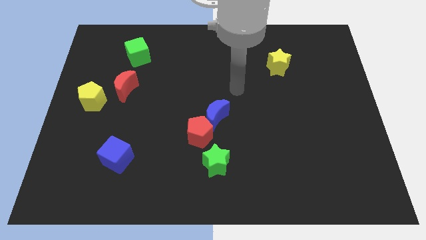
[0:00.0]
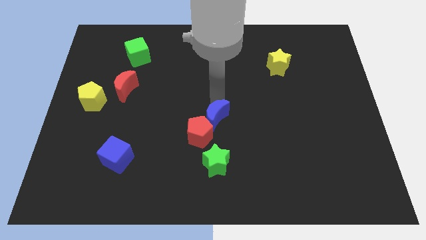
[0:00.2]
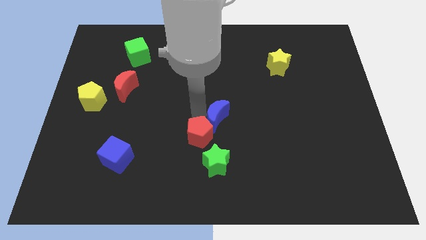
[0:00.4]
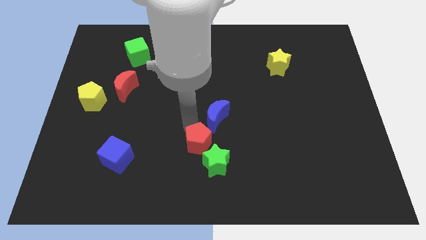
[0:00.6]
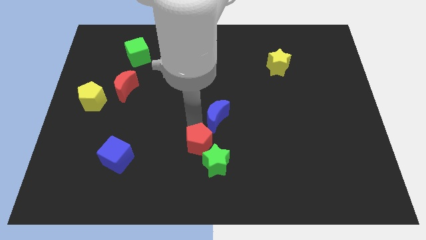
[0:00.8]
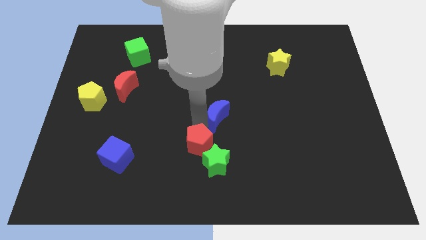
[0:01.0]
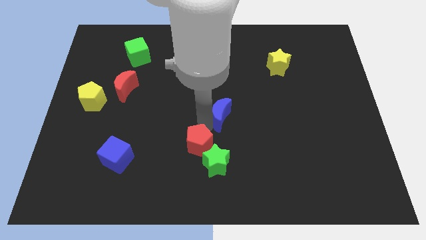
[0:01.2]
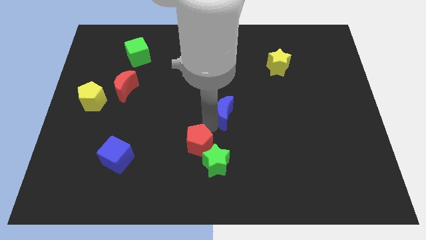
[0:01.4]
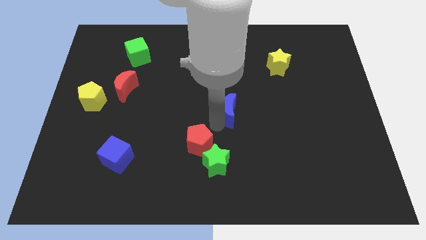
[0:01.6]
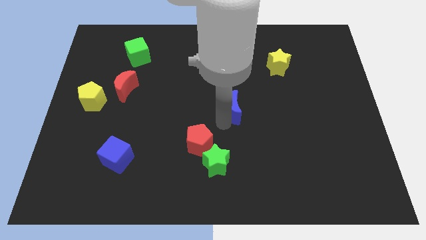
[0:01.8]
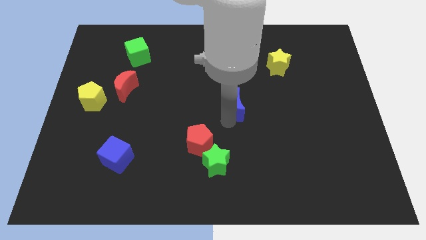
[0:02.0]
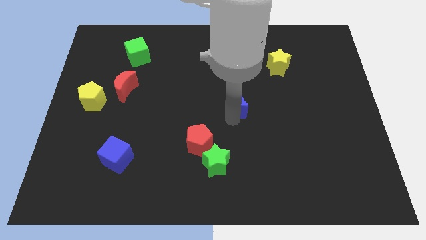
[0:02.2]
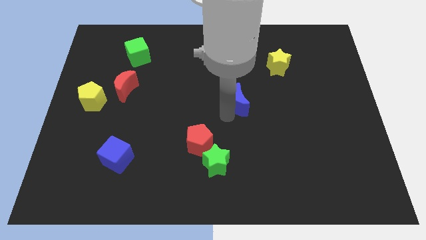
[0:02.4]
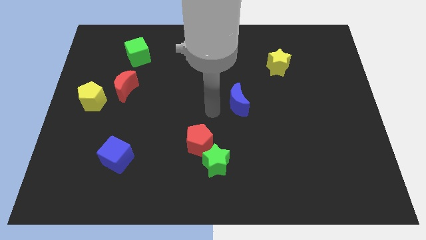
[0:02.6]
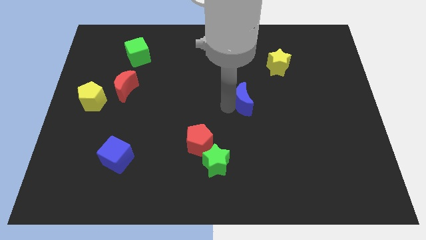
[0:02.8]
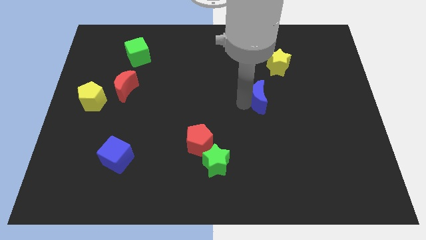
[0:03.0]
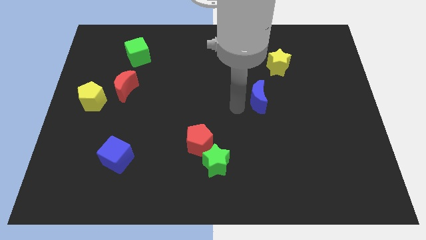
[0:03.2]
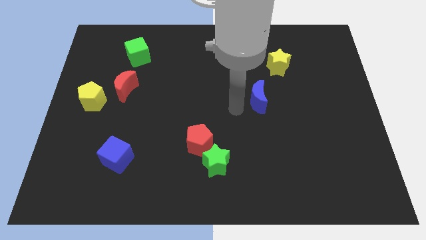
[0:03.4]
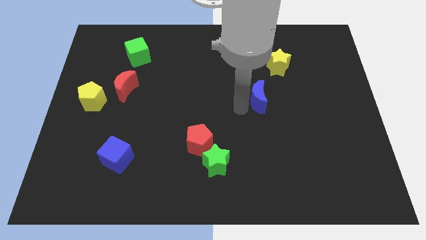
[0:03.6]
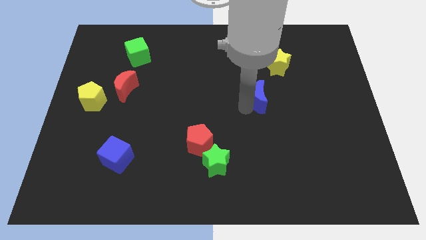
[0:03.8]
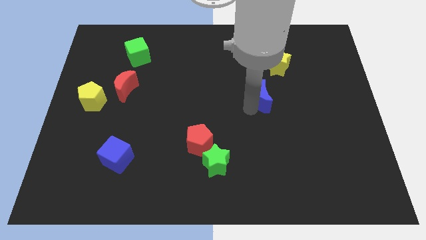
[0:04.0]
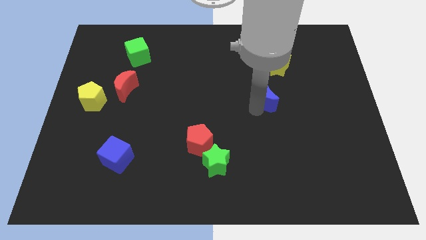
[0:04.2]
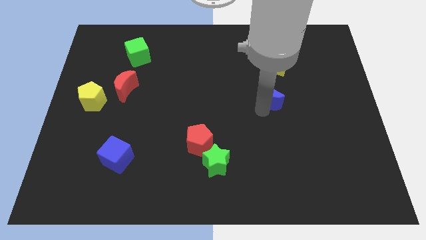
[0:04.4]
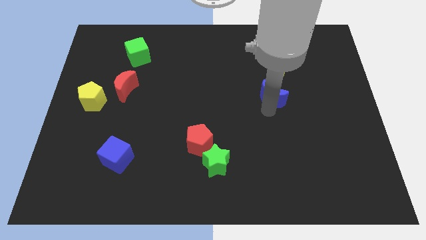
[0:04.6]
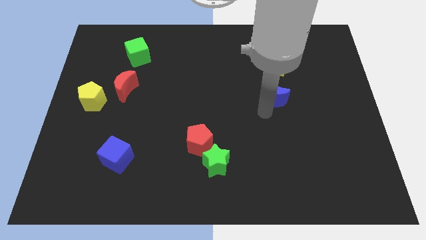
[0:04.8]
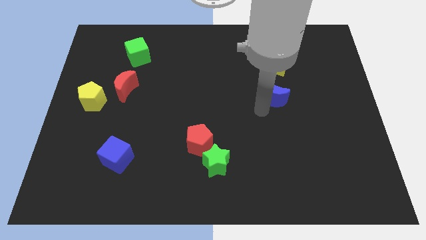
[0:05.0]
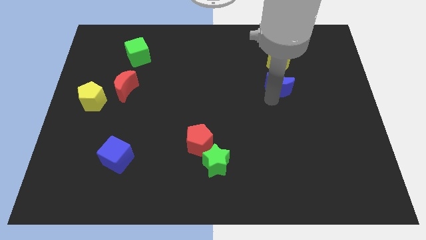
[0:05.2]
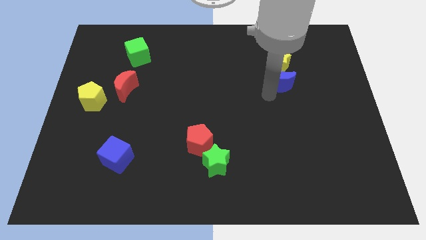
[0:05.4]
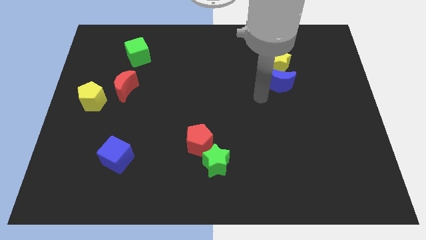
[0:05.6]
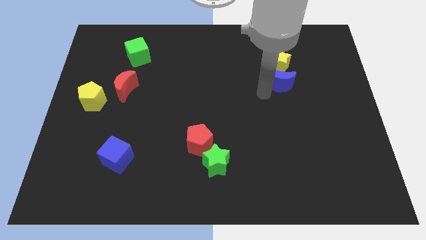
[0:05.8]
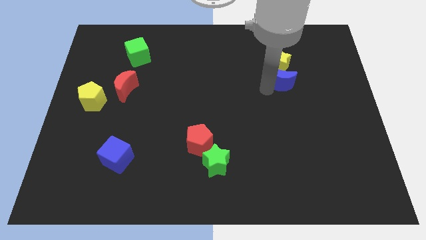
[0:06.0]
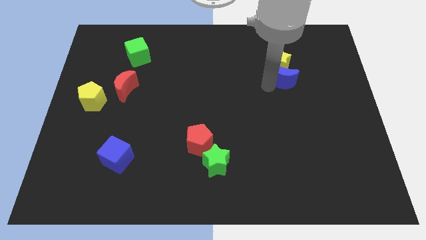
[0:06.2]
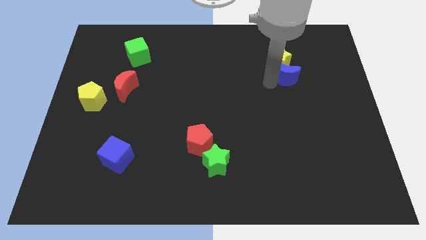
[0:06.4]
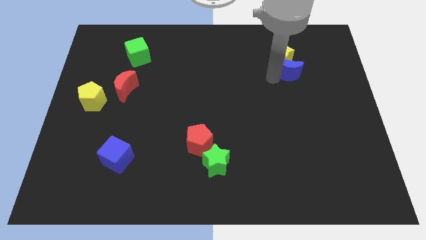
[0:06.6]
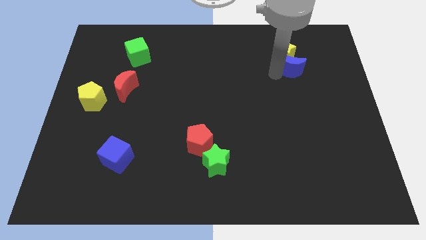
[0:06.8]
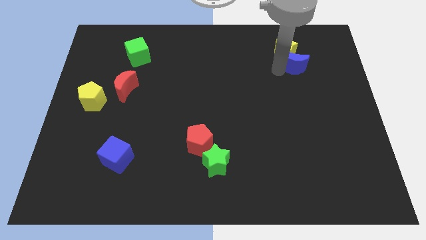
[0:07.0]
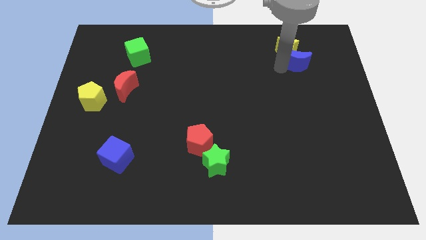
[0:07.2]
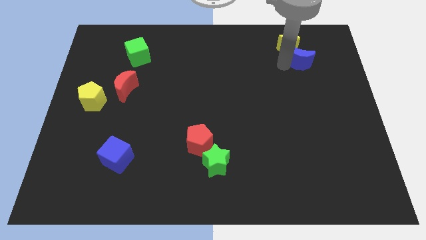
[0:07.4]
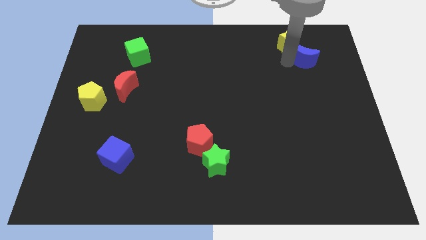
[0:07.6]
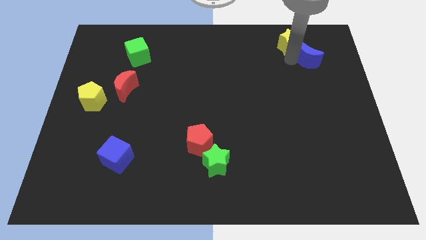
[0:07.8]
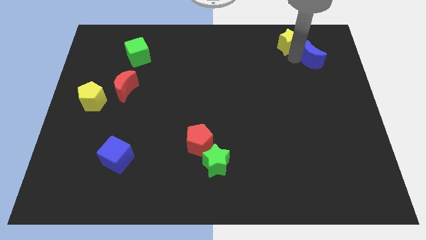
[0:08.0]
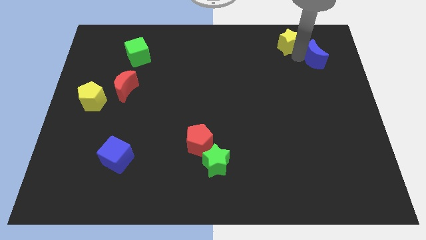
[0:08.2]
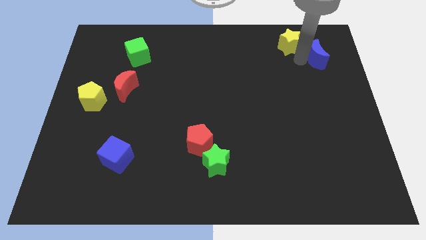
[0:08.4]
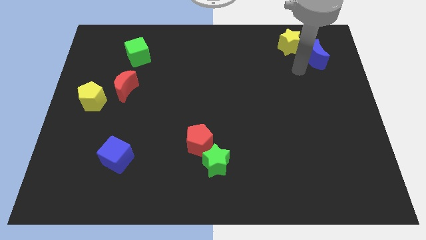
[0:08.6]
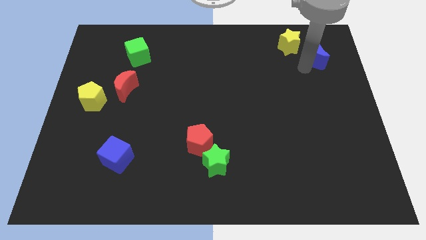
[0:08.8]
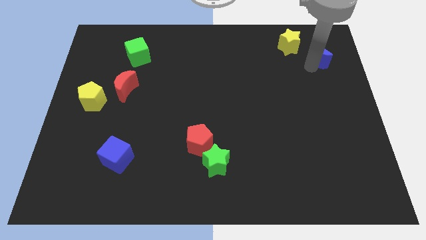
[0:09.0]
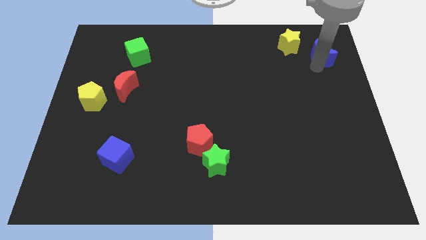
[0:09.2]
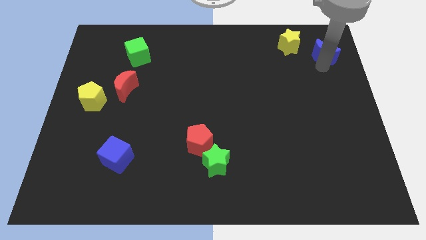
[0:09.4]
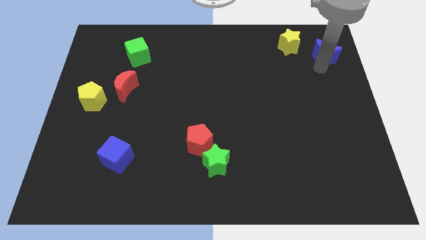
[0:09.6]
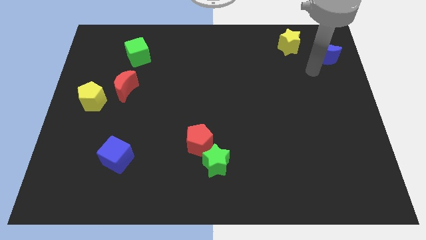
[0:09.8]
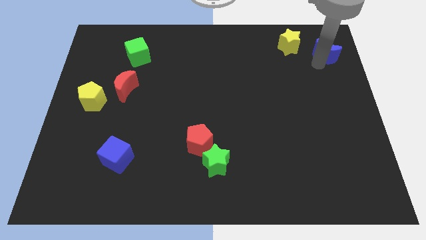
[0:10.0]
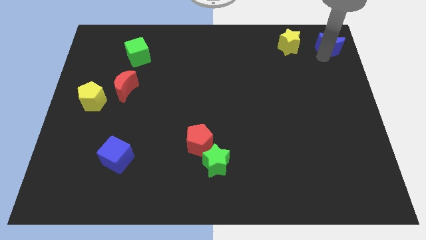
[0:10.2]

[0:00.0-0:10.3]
slide the blue moon to the top right

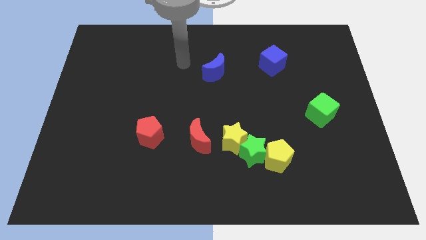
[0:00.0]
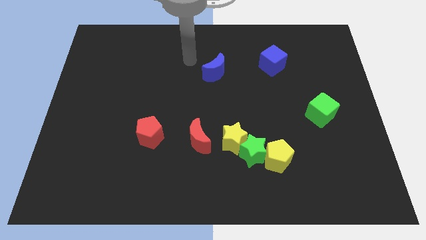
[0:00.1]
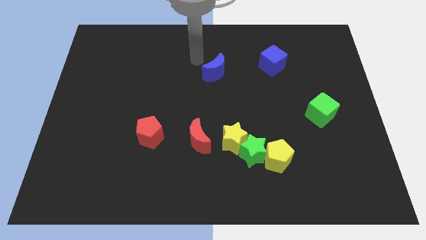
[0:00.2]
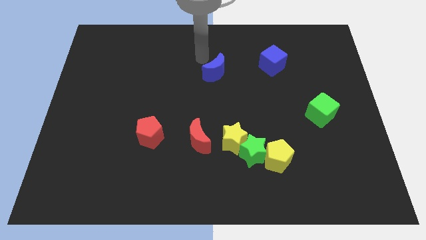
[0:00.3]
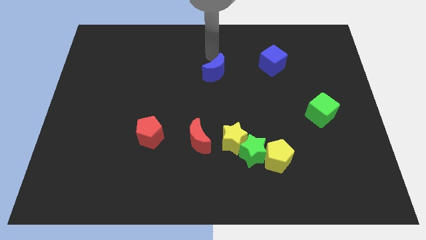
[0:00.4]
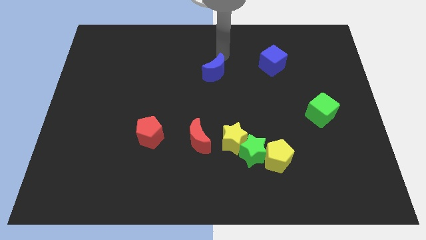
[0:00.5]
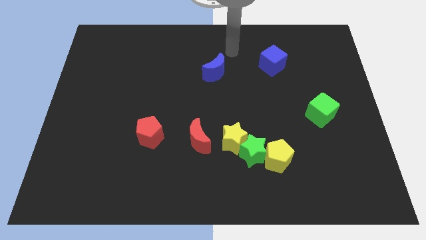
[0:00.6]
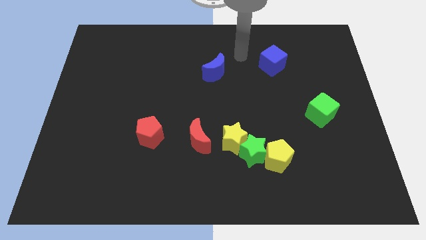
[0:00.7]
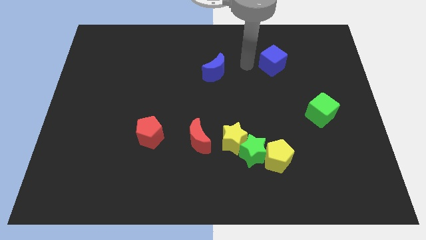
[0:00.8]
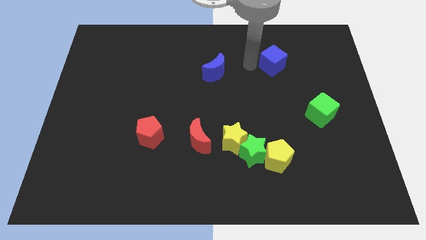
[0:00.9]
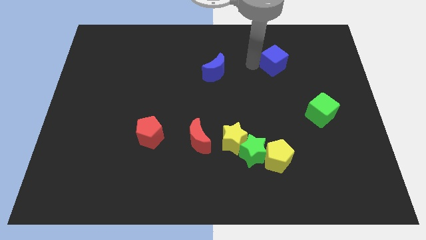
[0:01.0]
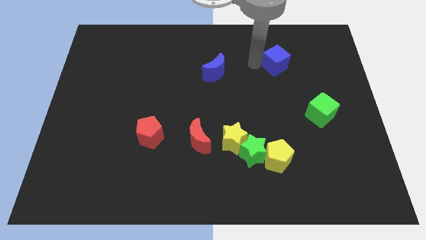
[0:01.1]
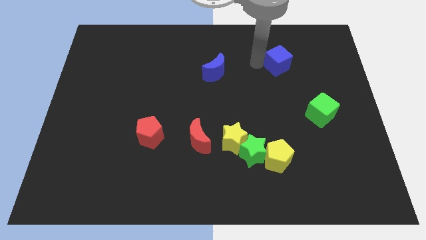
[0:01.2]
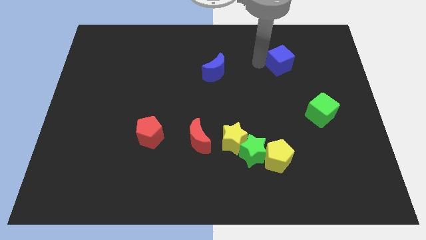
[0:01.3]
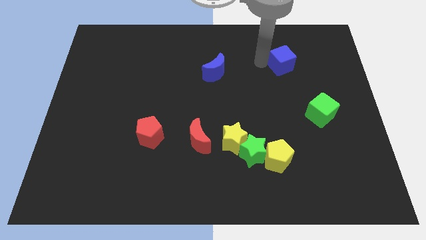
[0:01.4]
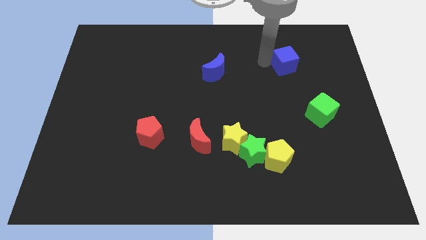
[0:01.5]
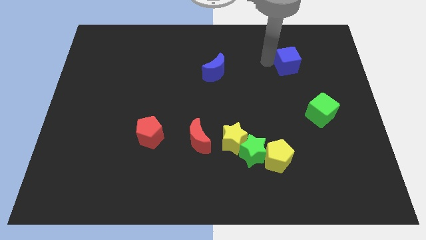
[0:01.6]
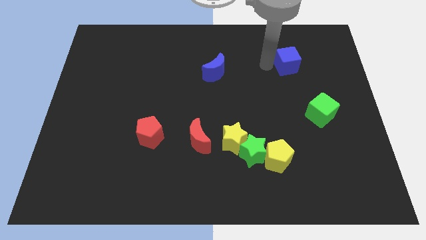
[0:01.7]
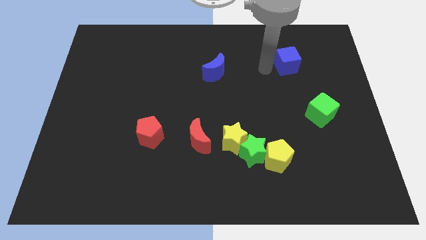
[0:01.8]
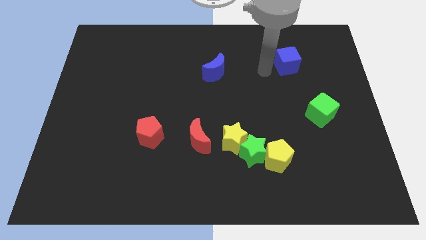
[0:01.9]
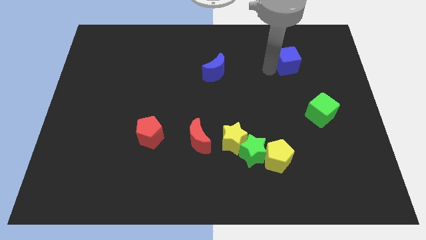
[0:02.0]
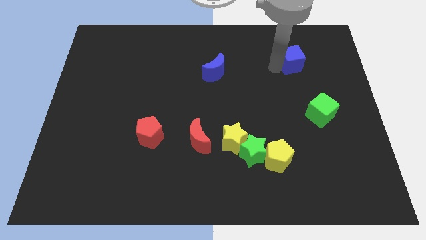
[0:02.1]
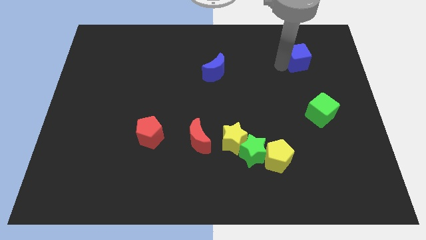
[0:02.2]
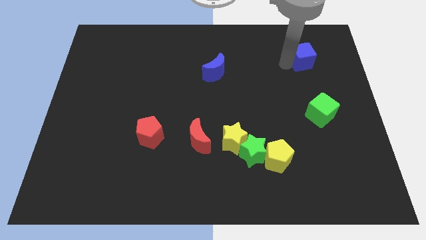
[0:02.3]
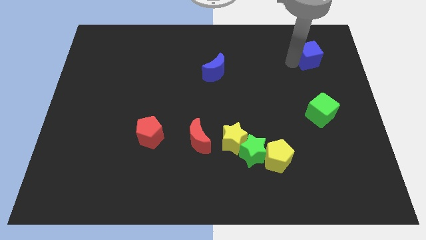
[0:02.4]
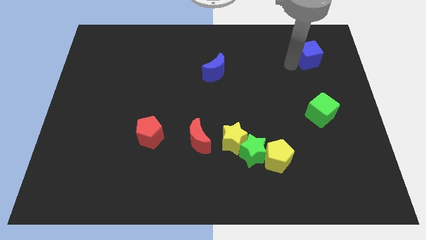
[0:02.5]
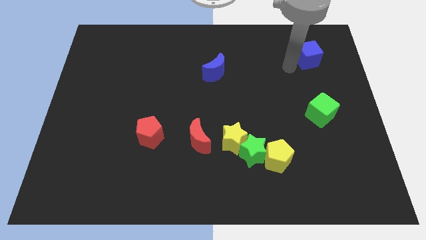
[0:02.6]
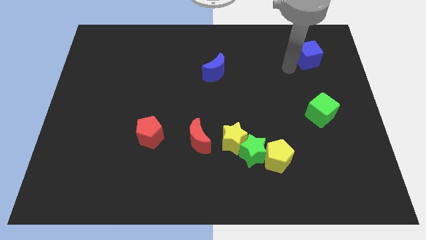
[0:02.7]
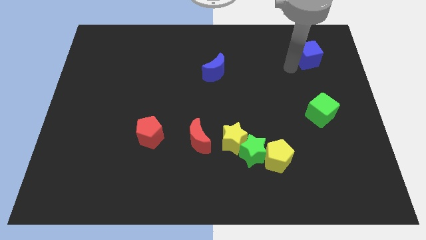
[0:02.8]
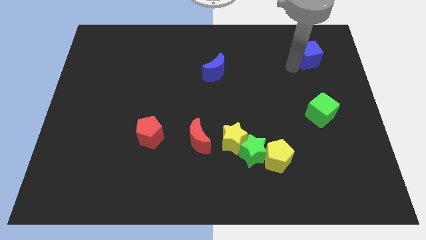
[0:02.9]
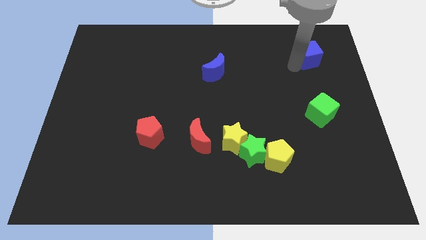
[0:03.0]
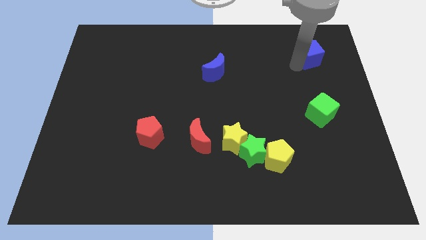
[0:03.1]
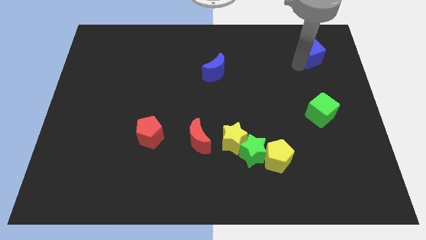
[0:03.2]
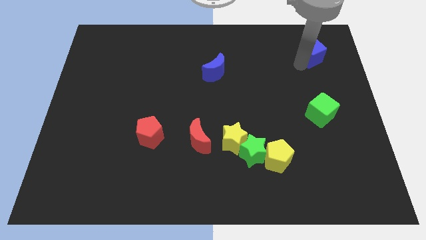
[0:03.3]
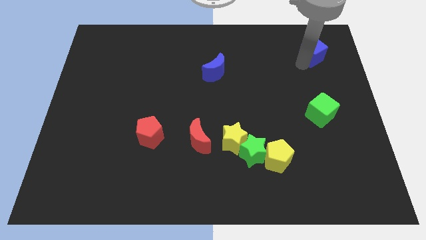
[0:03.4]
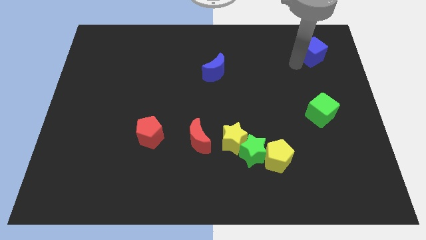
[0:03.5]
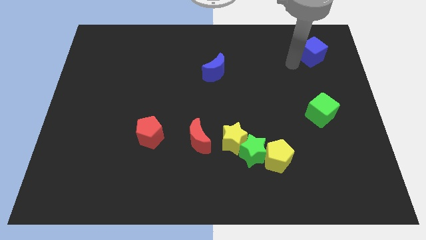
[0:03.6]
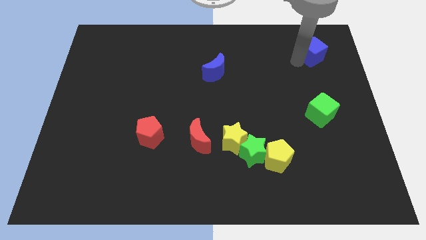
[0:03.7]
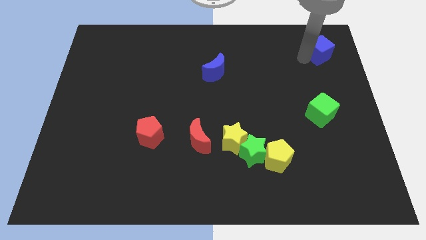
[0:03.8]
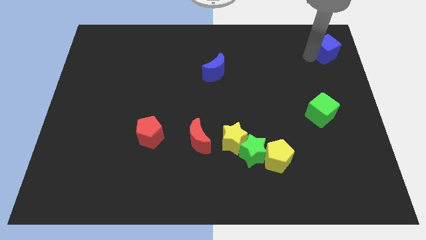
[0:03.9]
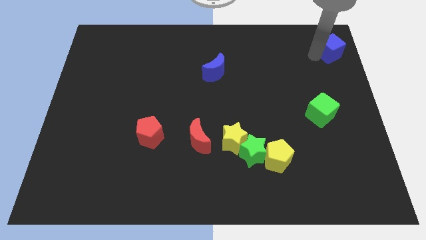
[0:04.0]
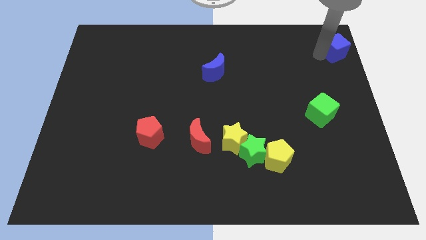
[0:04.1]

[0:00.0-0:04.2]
put the blue cube to the top right of the board
